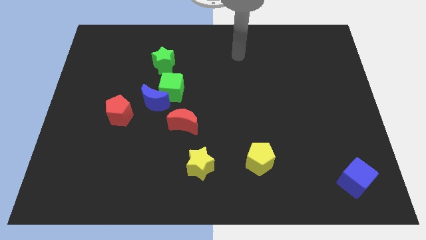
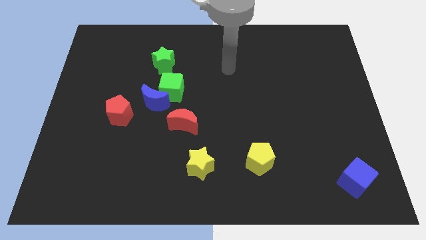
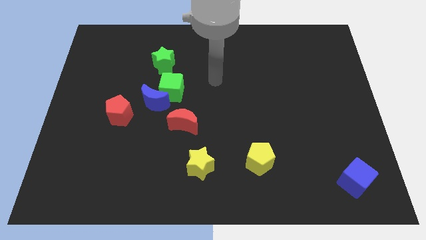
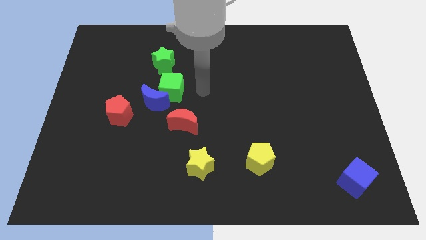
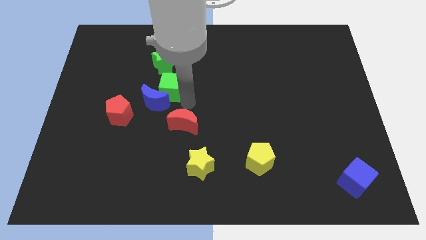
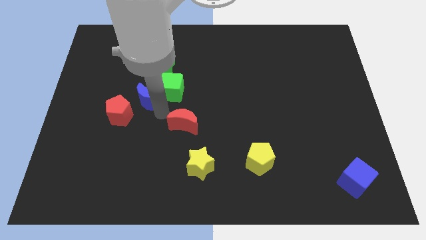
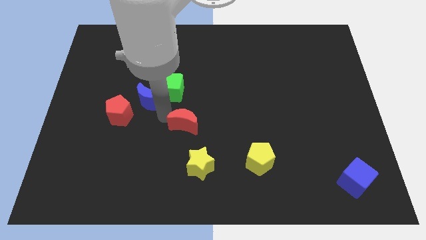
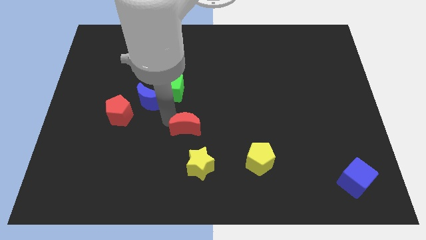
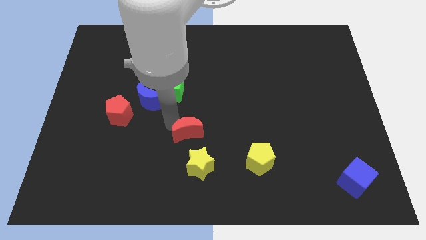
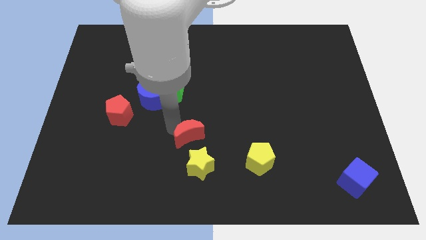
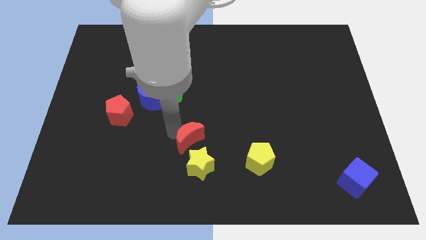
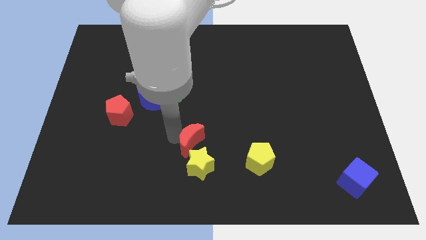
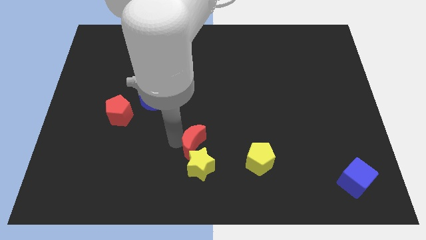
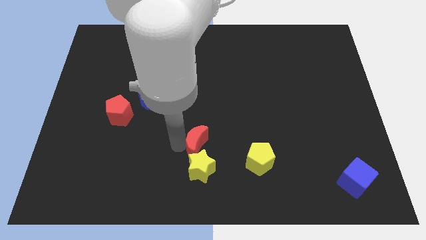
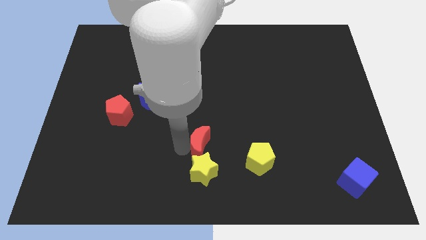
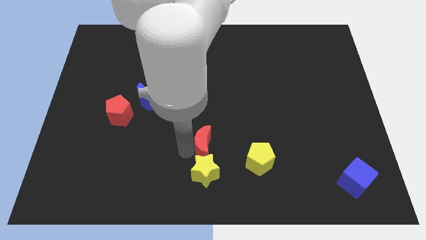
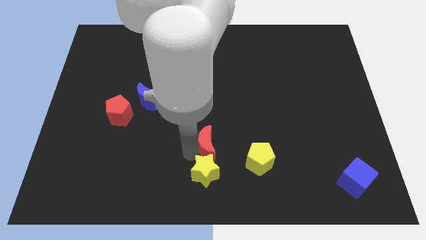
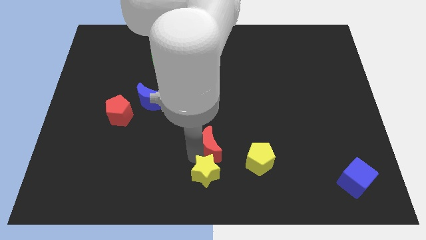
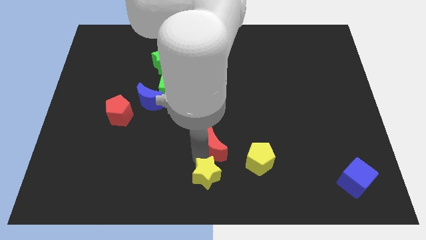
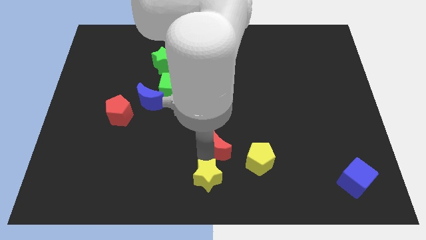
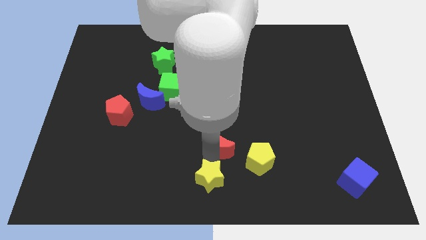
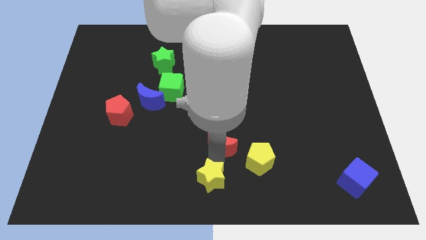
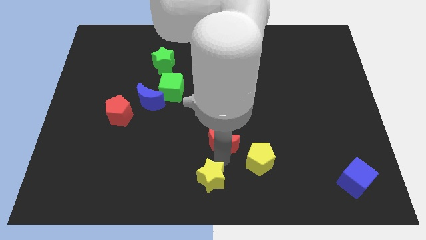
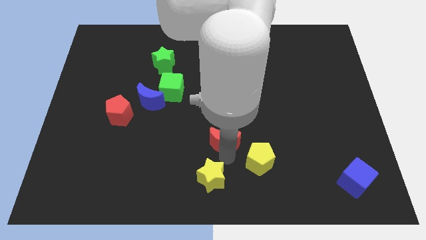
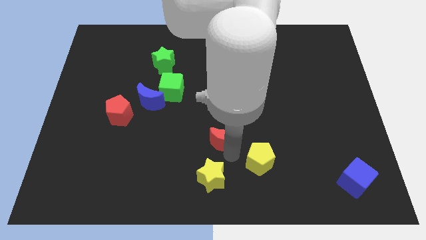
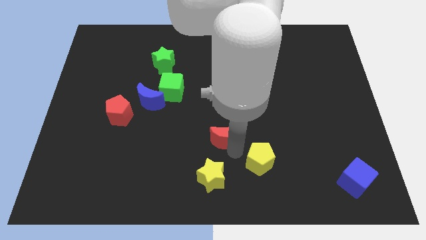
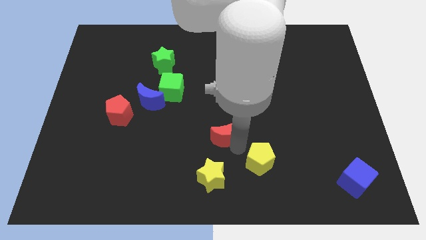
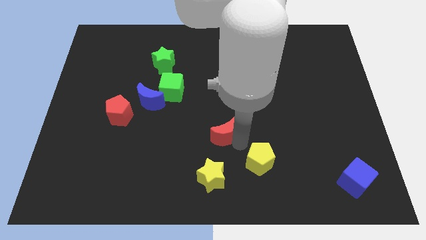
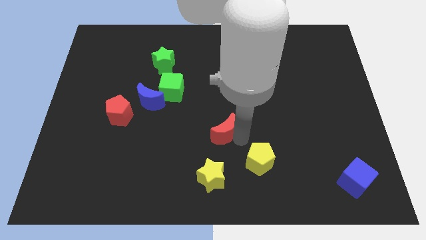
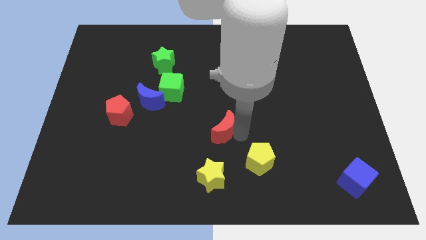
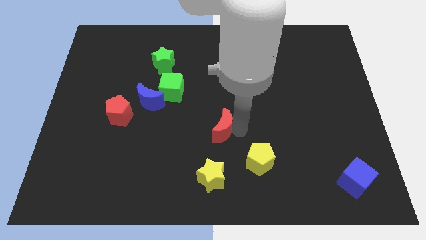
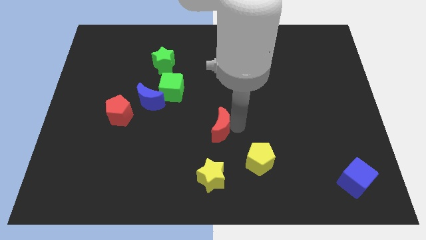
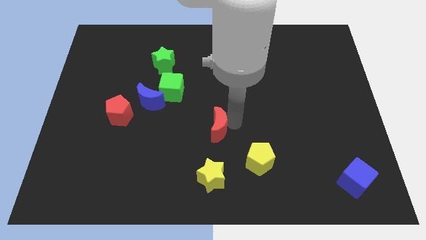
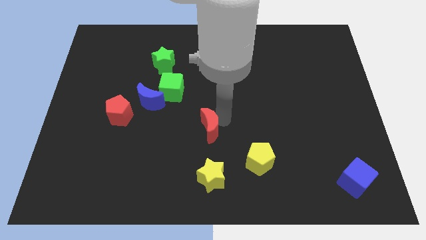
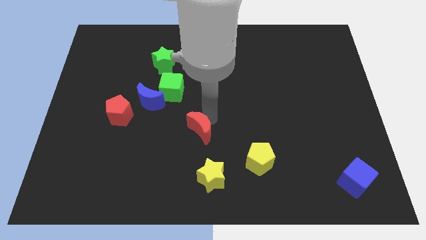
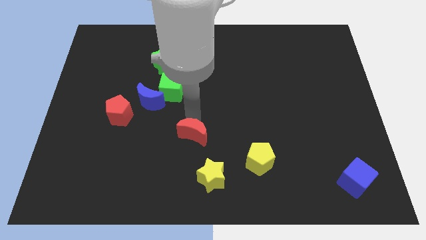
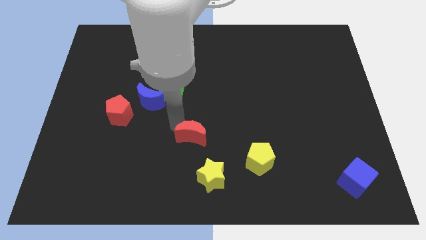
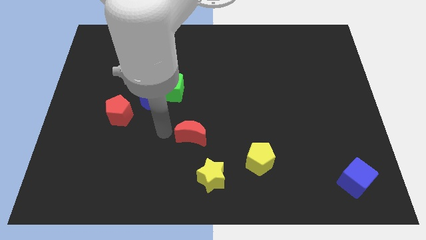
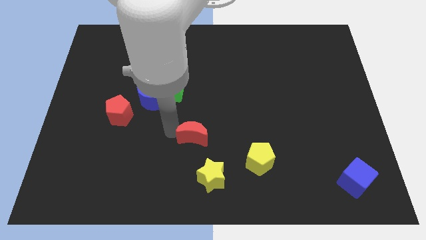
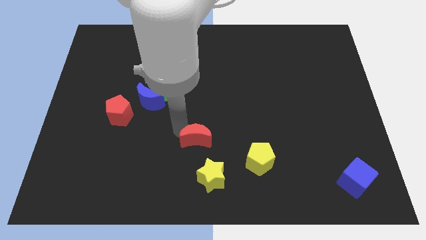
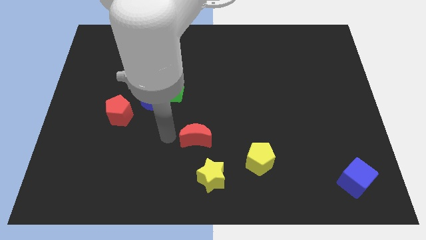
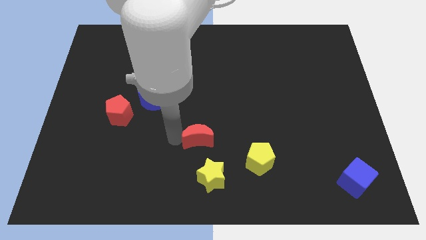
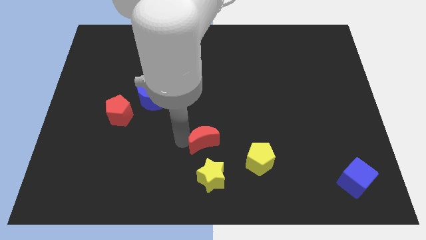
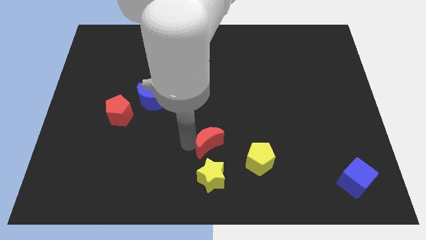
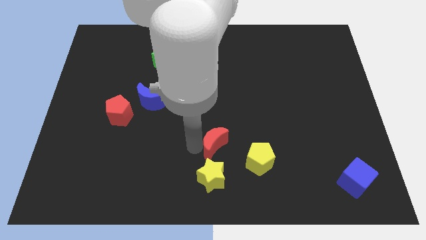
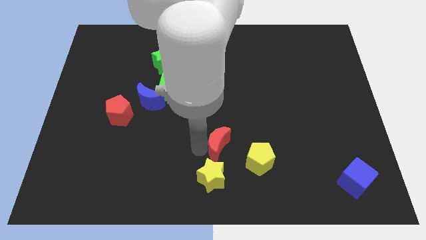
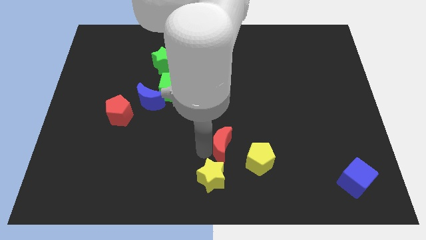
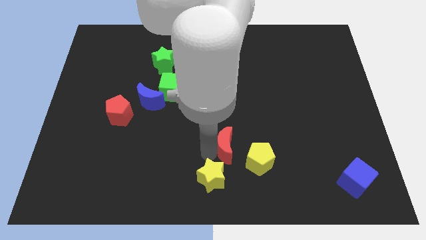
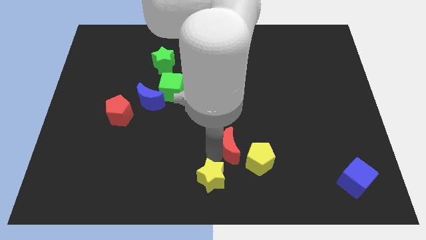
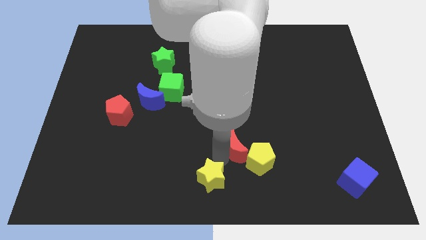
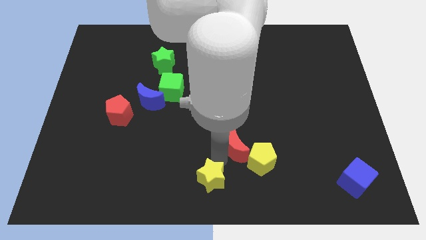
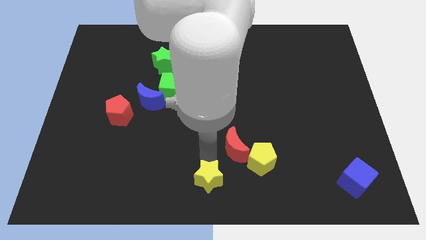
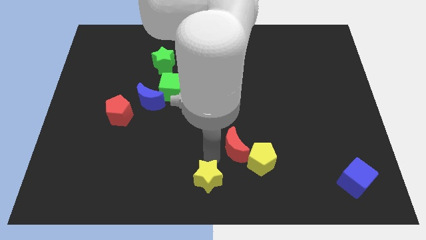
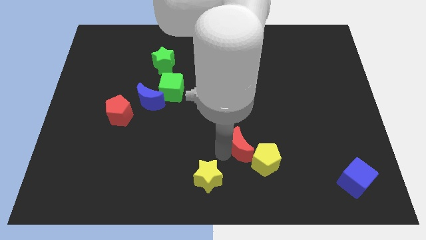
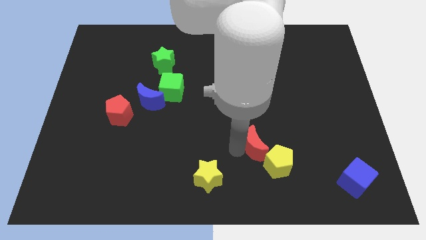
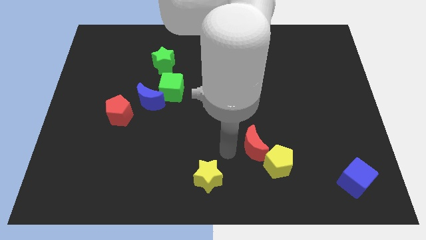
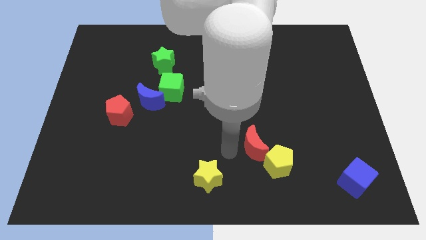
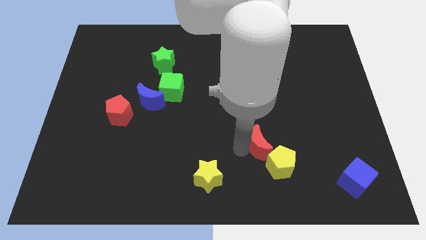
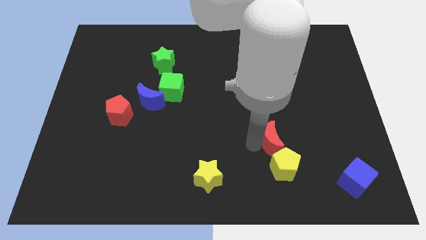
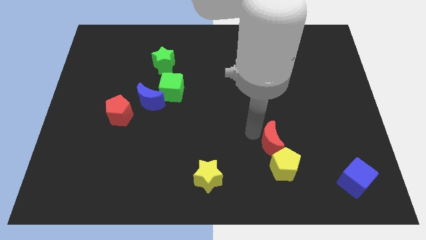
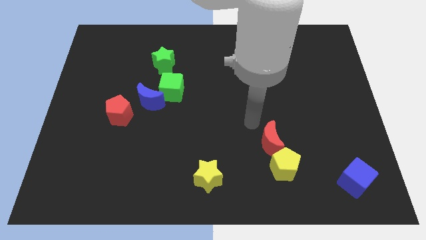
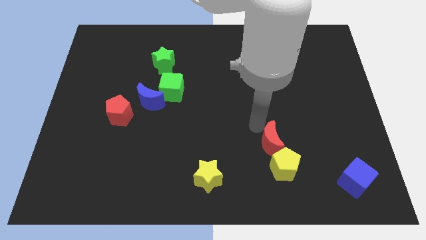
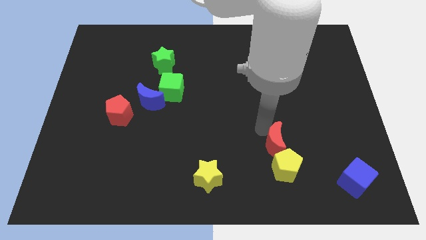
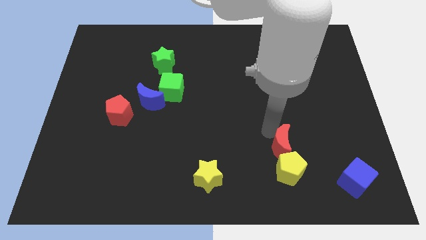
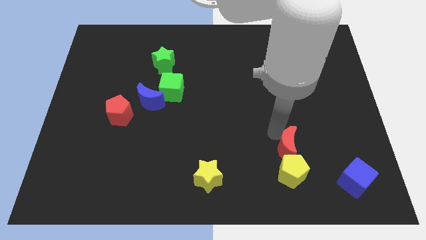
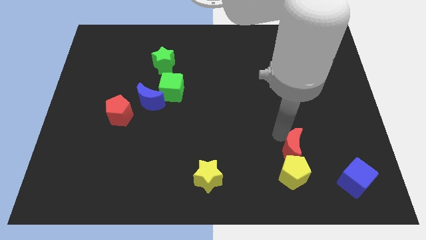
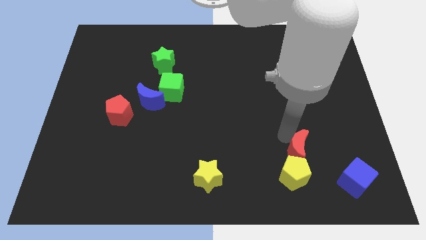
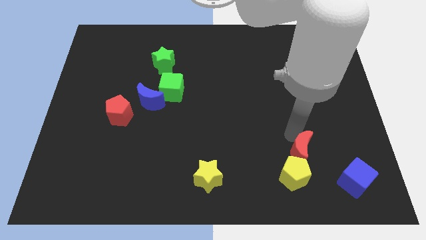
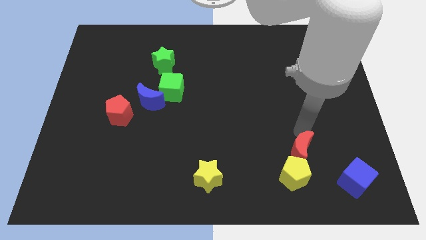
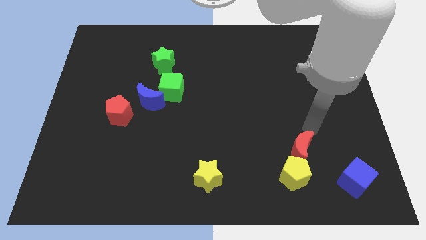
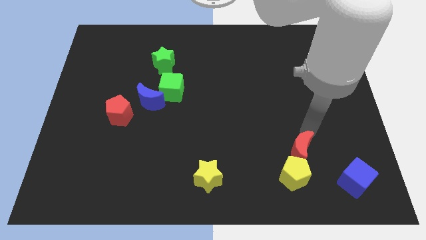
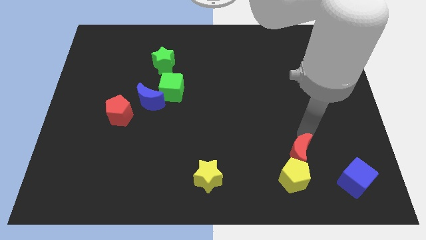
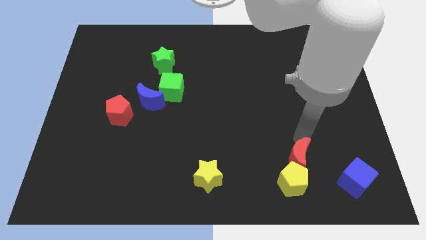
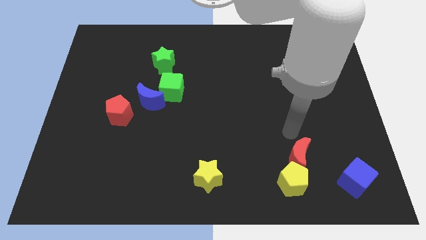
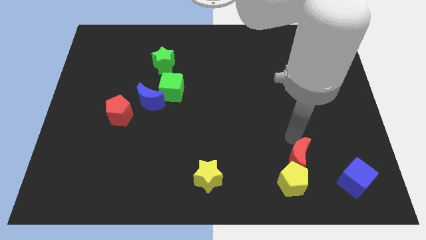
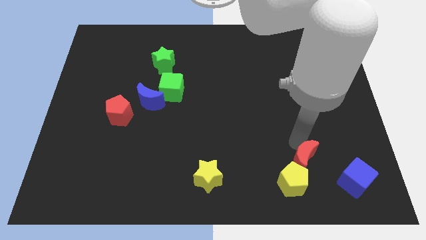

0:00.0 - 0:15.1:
slide the red moon left of the blue cube

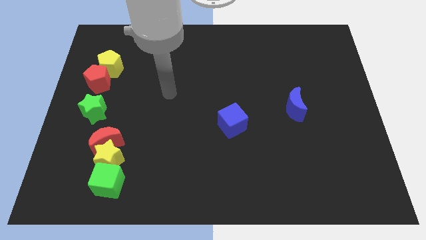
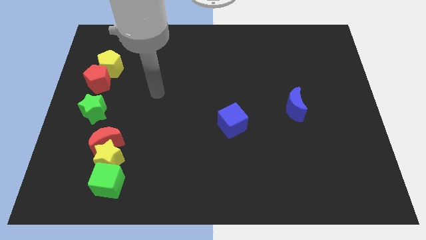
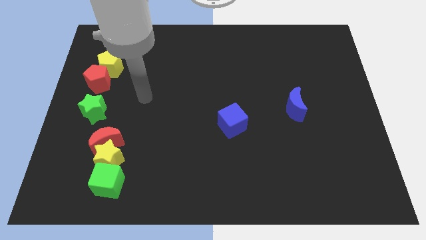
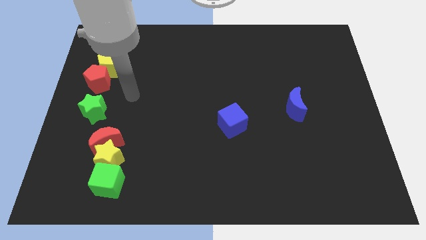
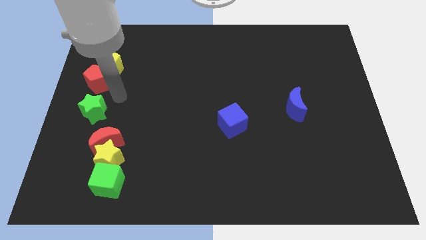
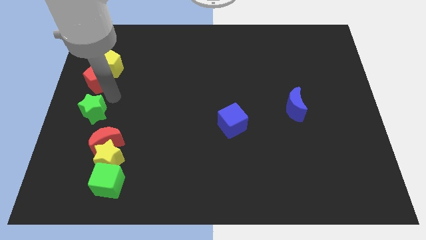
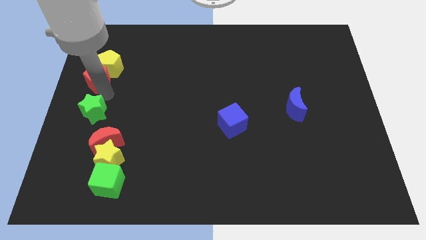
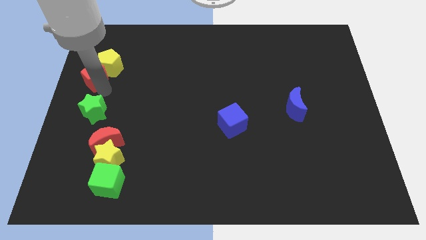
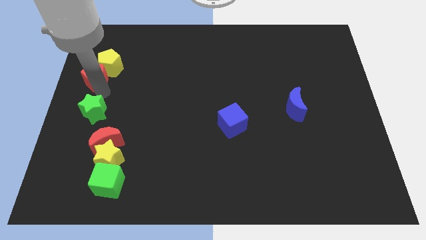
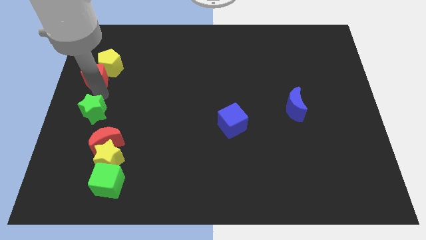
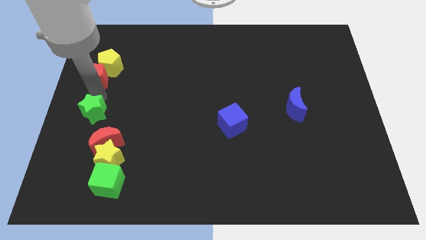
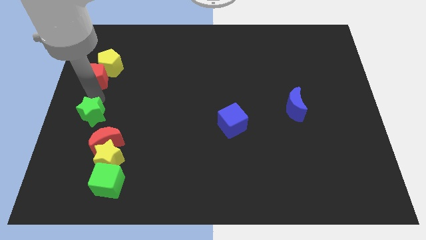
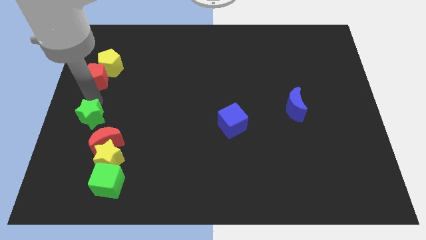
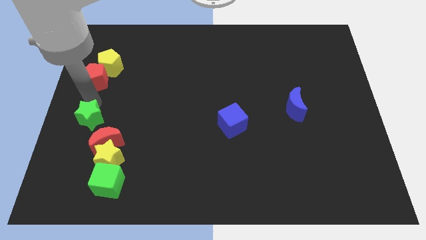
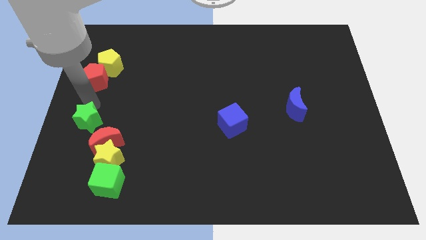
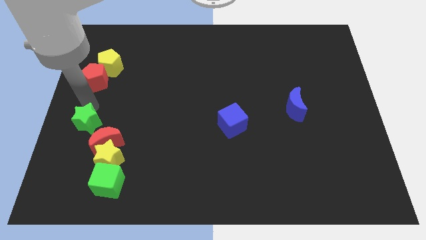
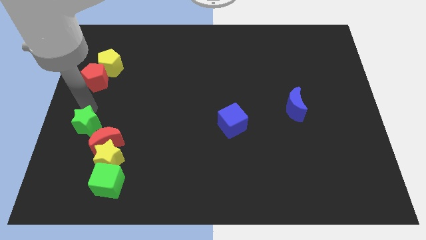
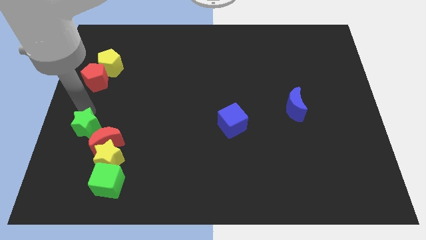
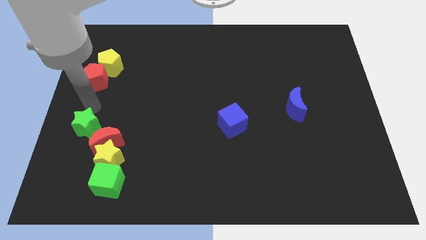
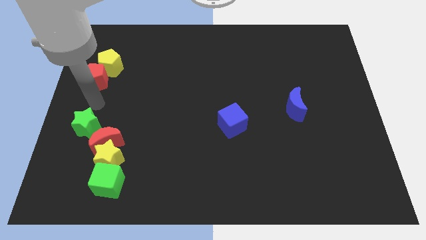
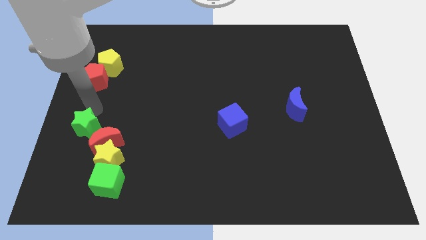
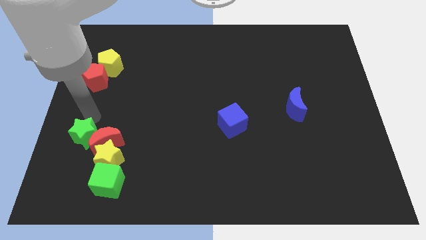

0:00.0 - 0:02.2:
push the green star to the bottom left of the red moon
